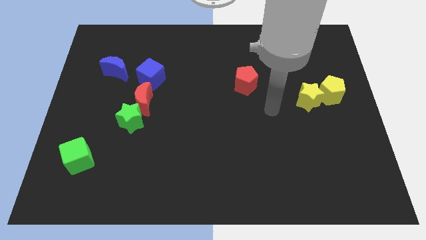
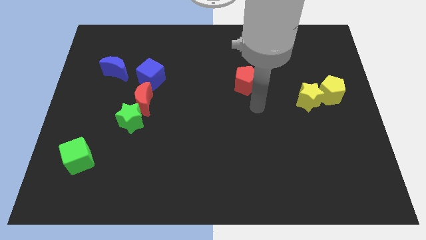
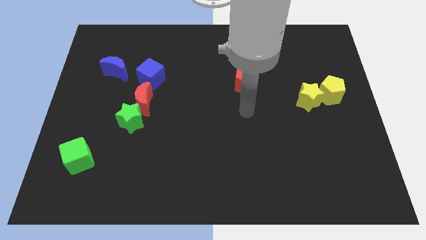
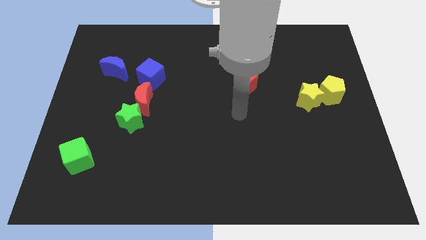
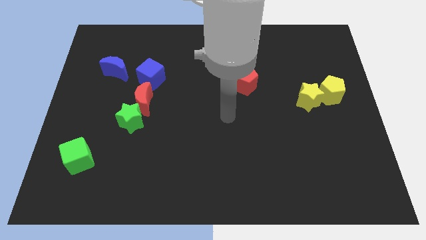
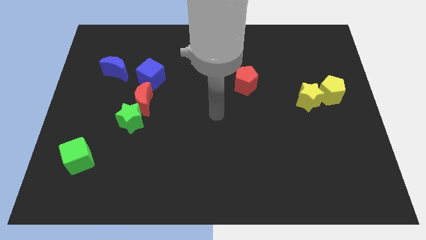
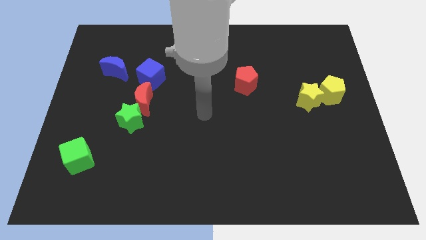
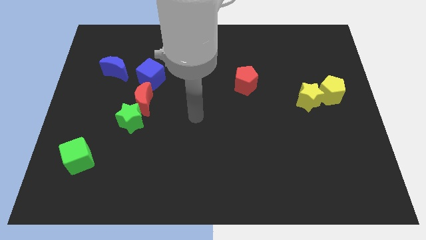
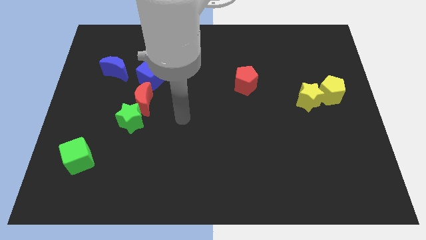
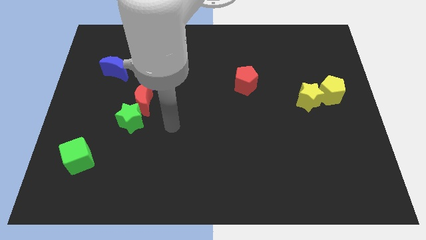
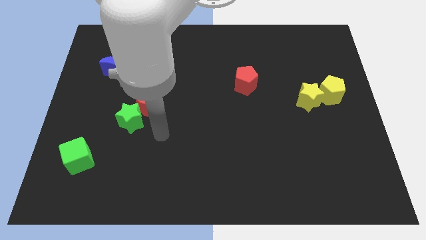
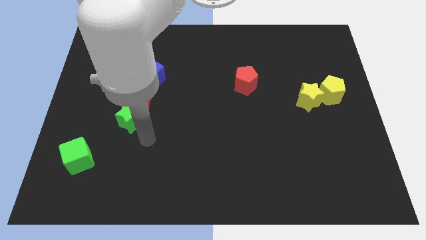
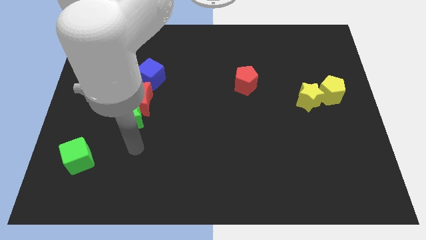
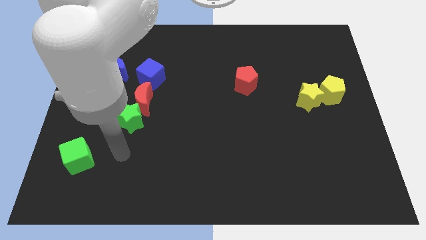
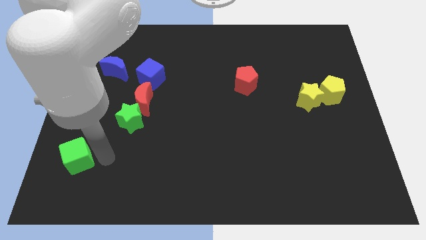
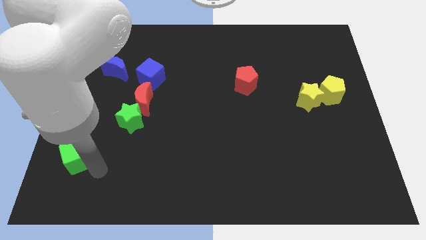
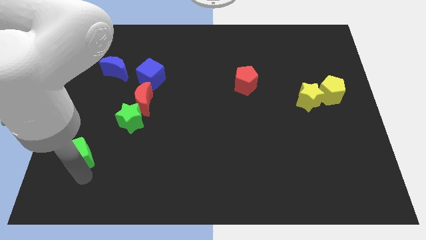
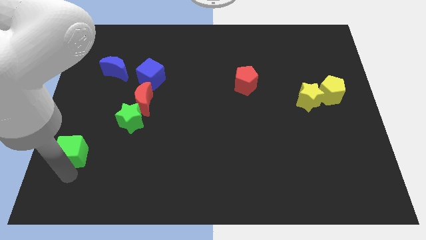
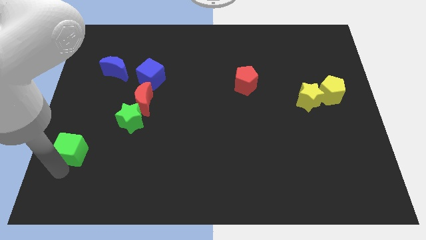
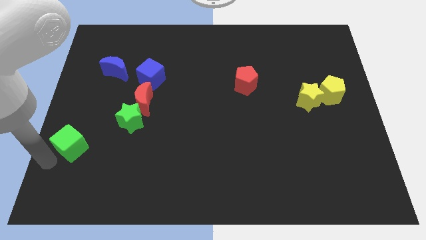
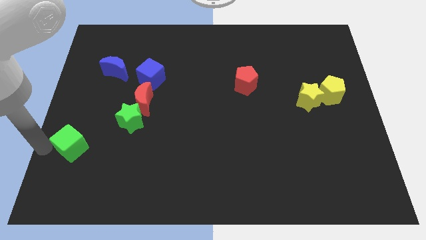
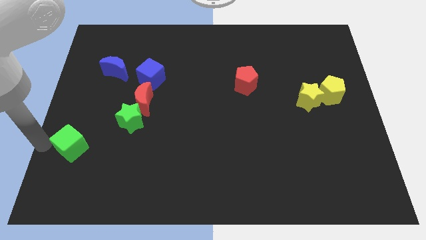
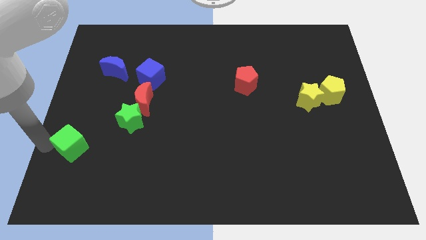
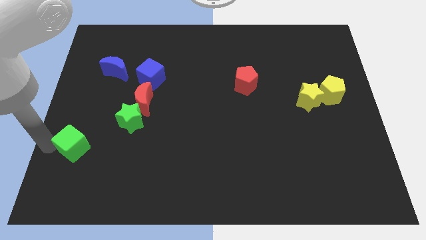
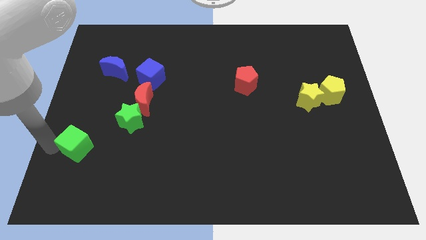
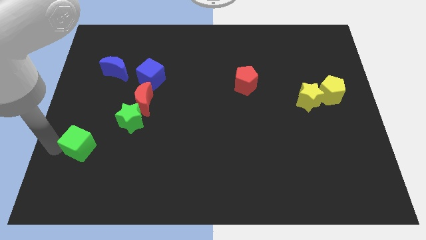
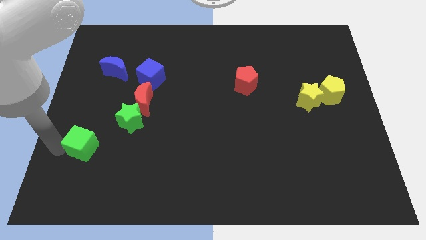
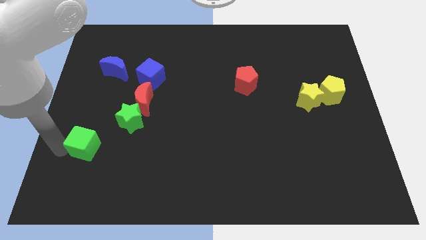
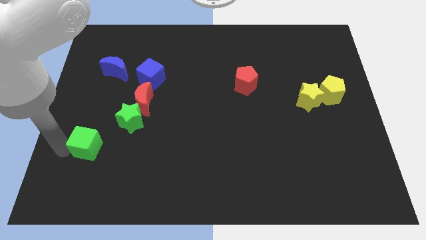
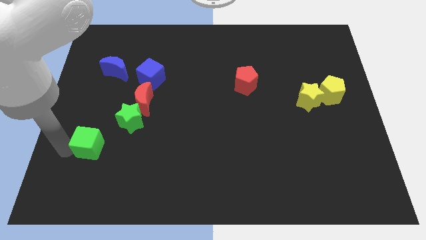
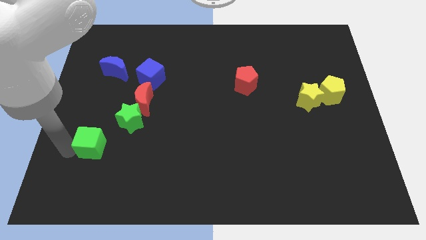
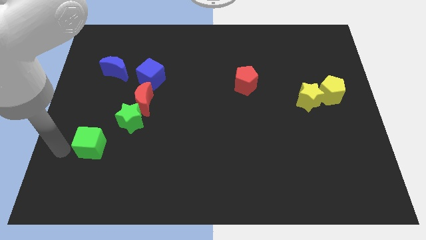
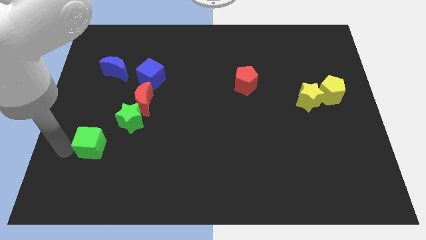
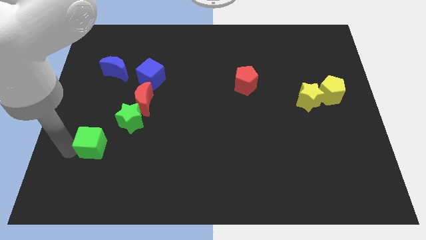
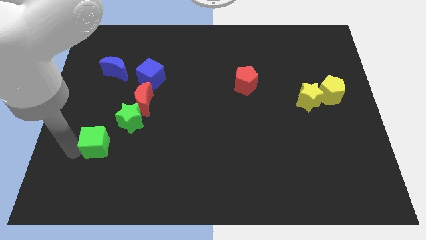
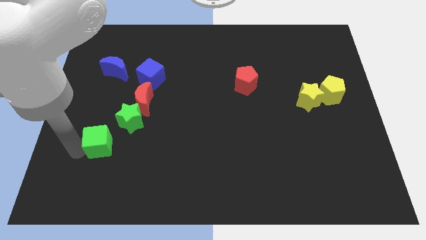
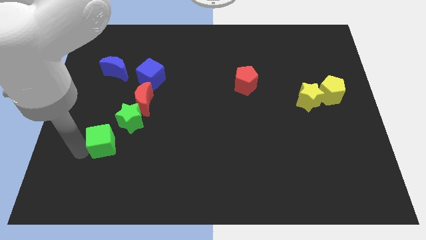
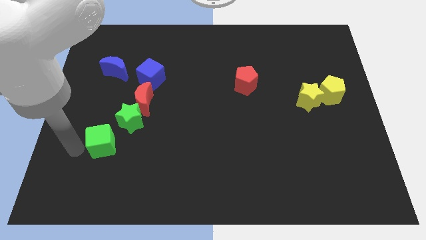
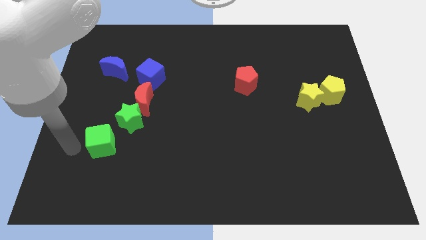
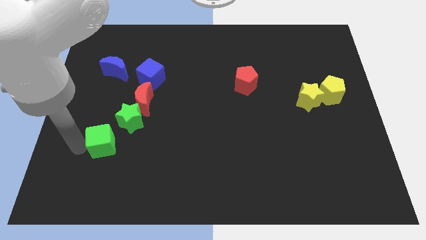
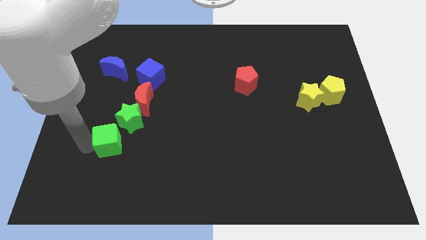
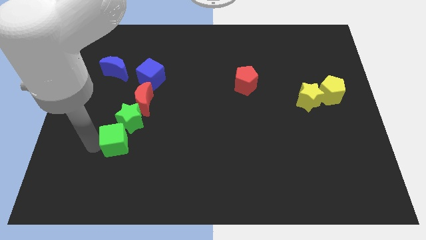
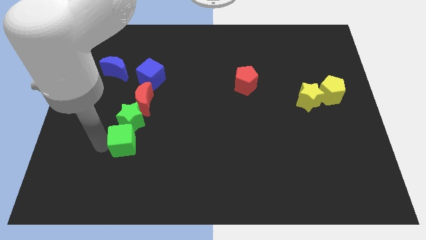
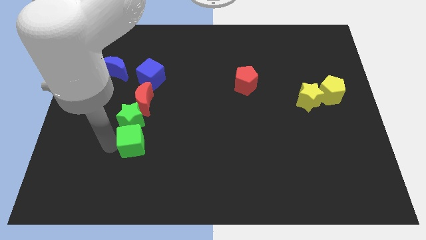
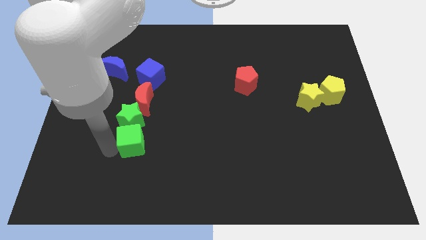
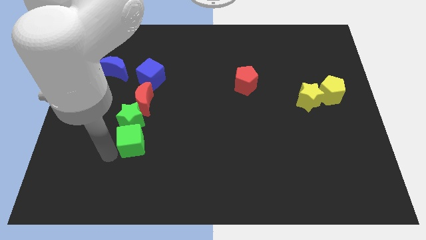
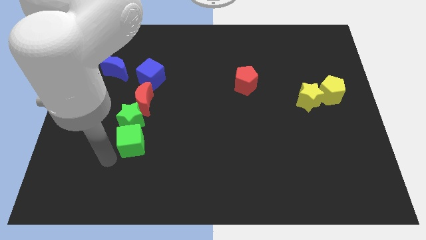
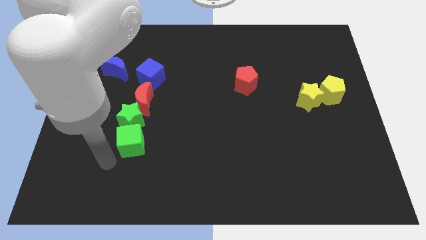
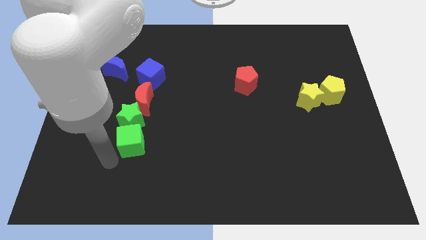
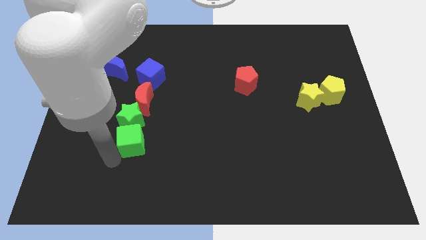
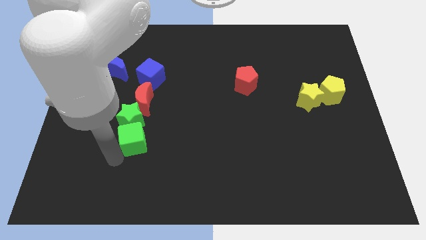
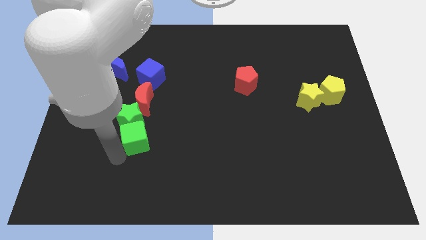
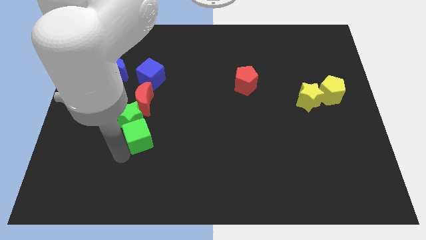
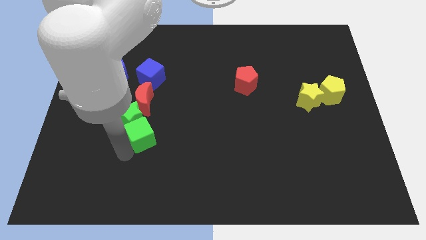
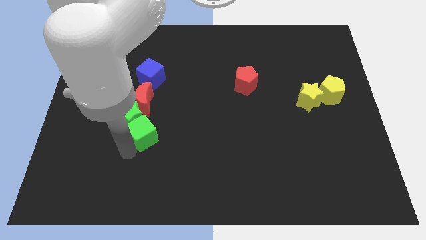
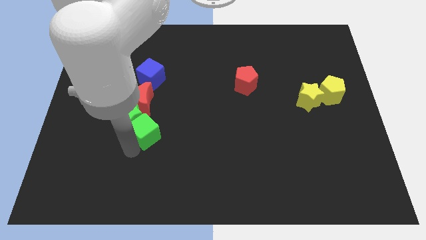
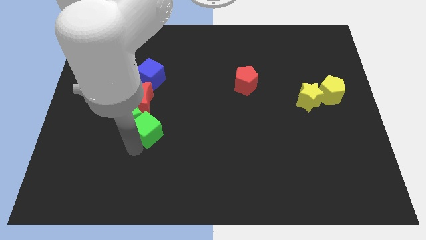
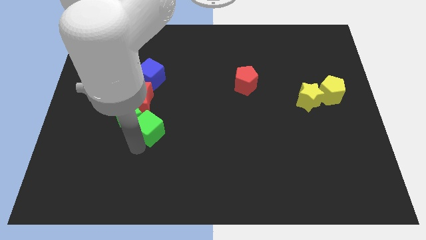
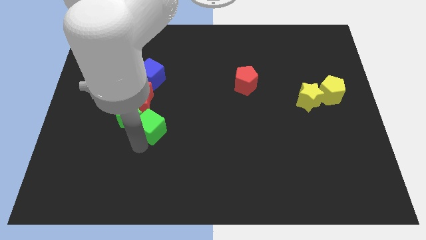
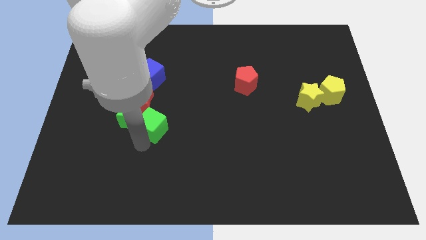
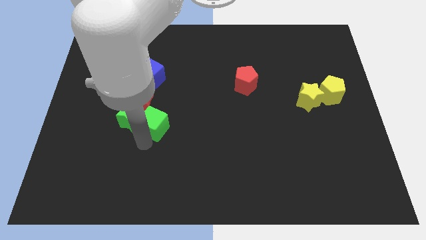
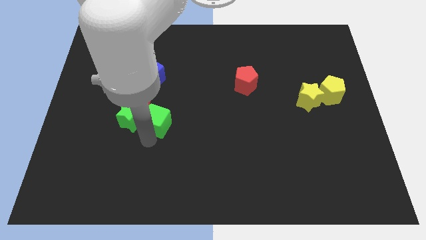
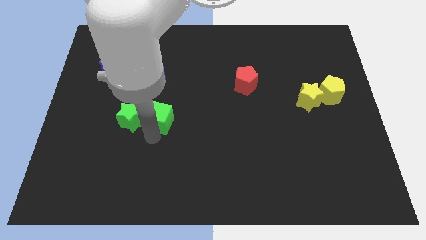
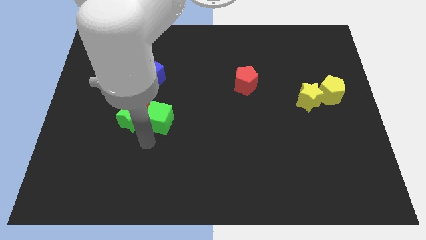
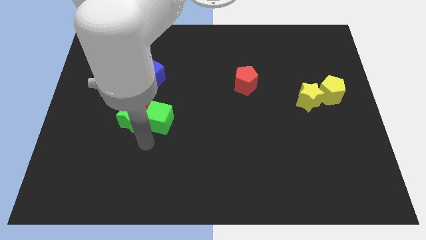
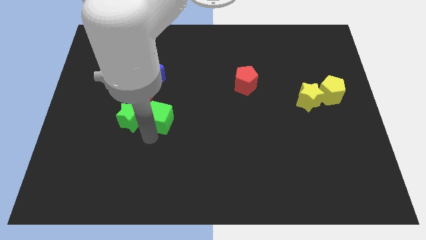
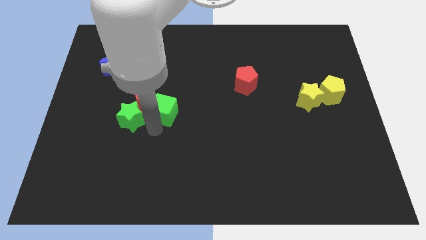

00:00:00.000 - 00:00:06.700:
slide the green cube upwards and right

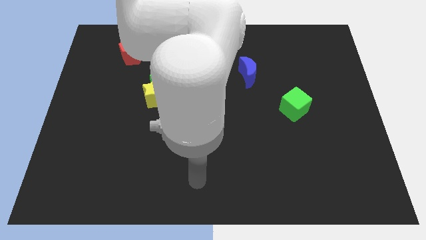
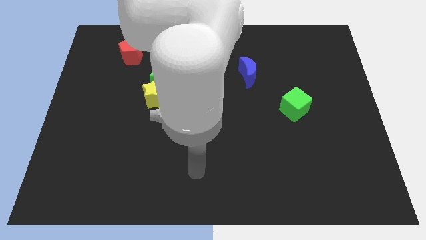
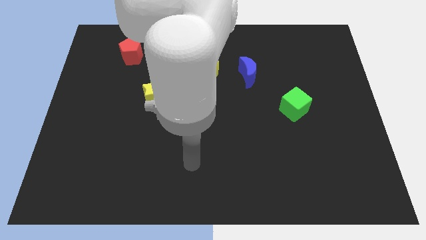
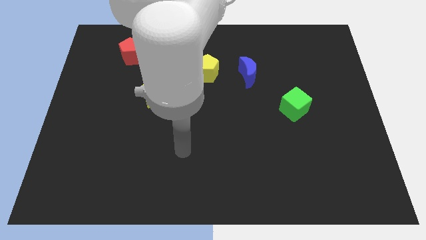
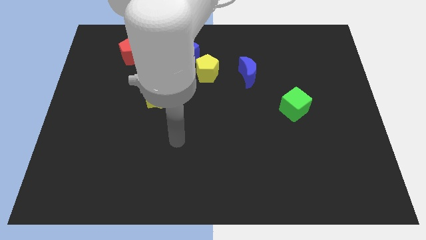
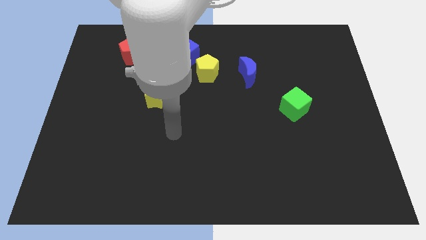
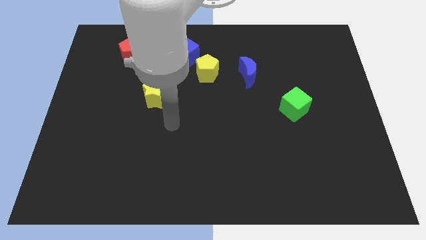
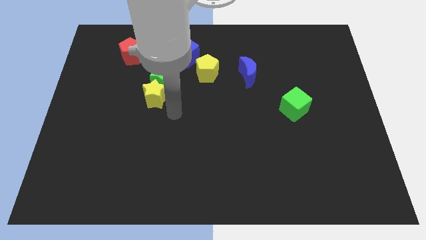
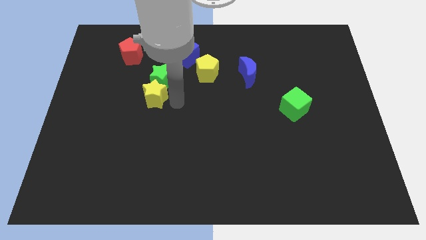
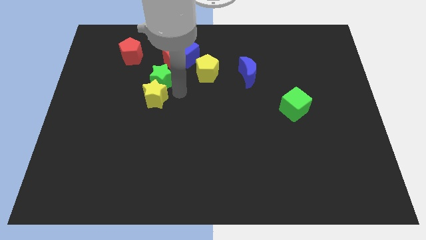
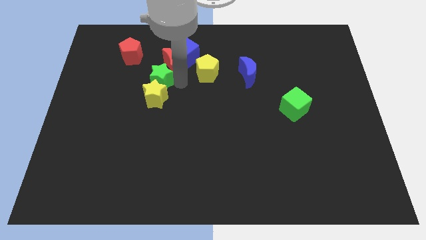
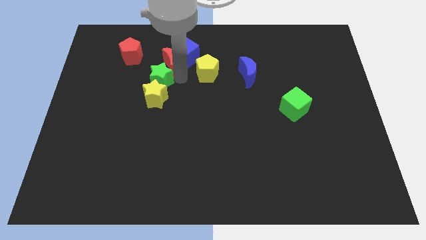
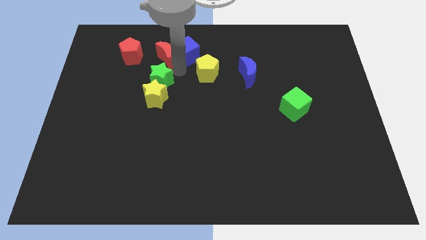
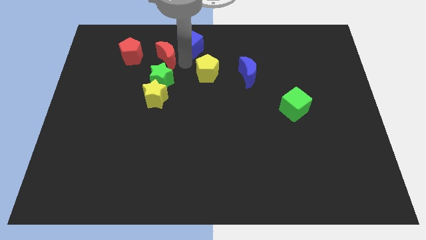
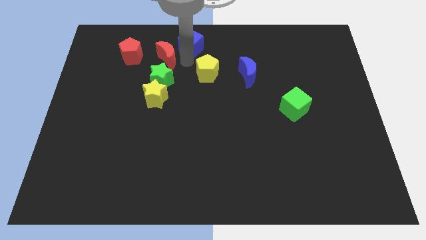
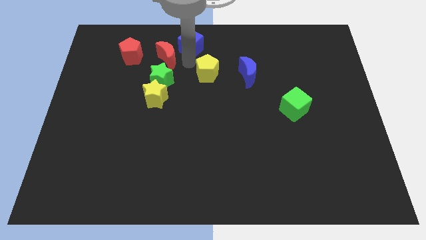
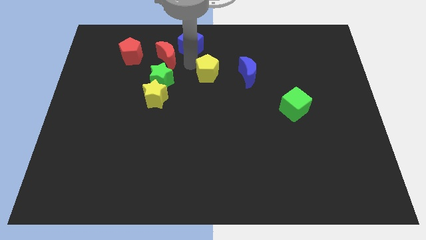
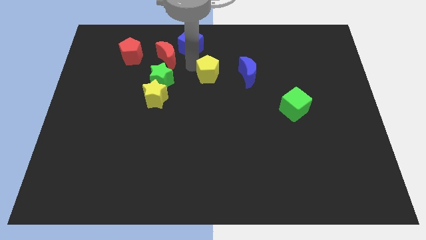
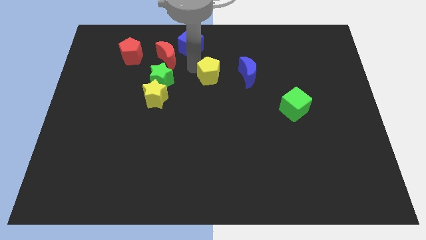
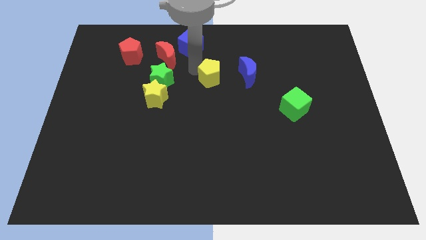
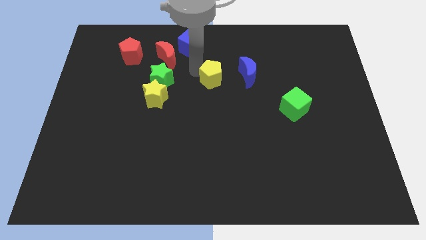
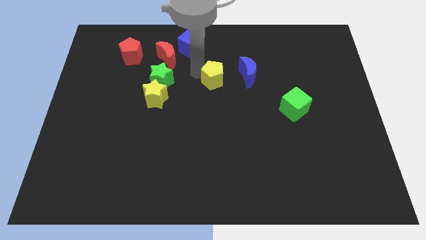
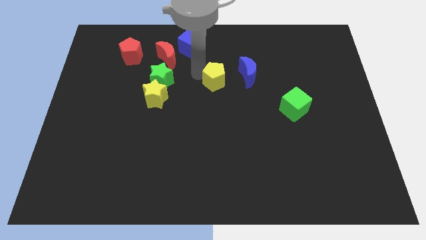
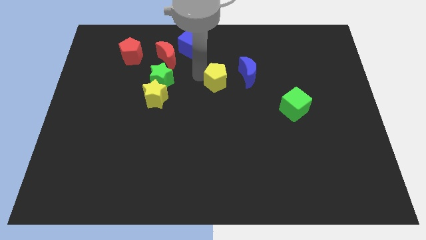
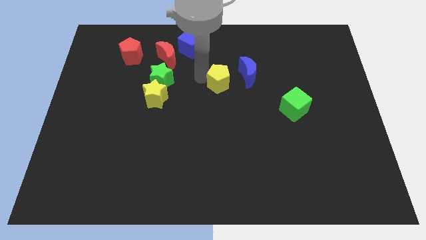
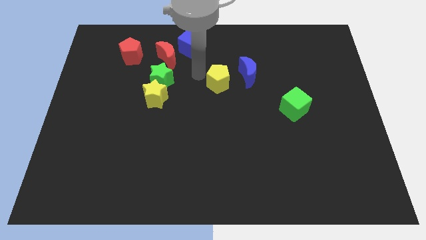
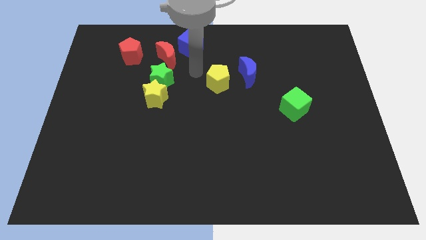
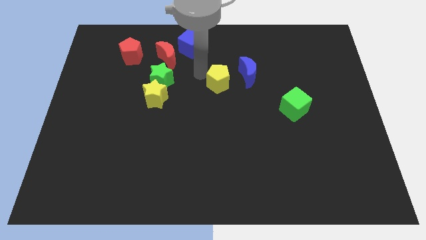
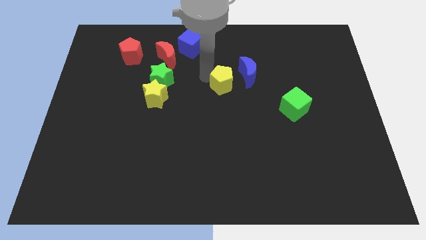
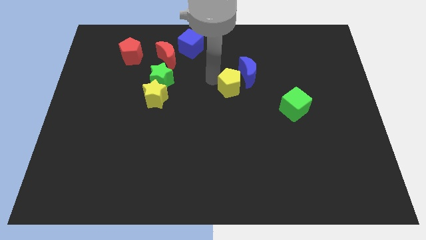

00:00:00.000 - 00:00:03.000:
slide the yellow pentagon slightly diagonally downwards and to the right
